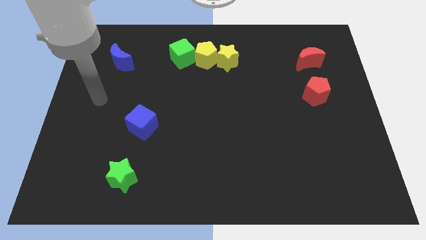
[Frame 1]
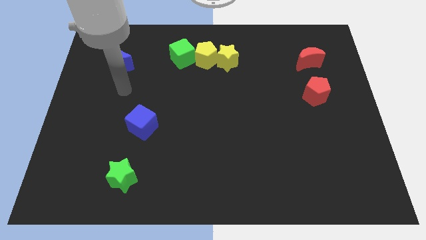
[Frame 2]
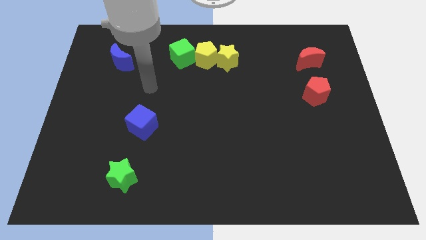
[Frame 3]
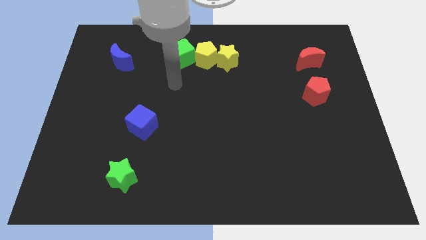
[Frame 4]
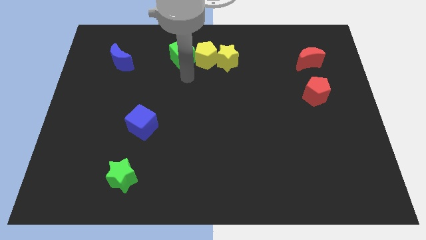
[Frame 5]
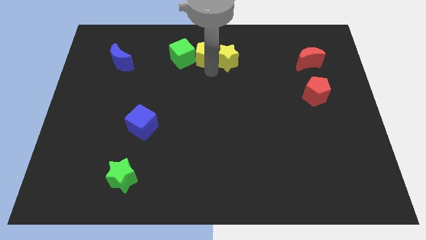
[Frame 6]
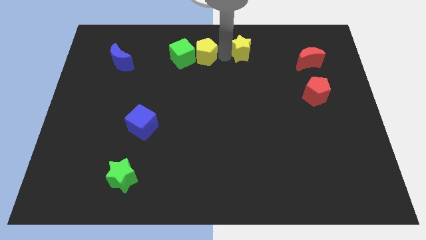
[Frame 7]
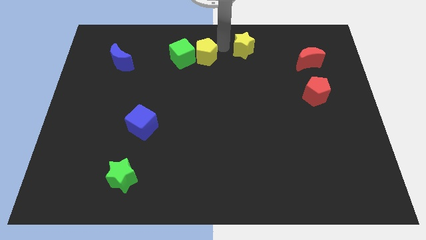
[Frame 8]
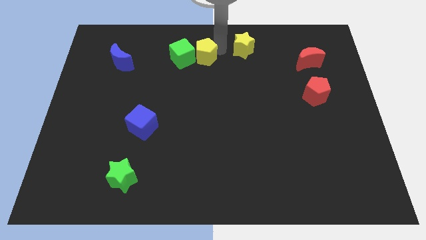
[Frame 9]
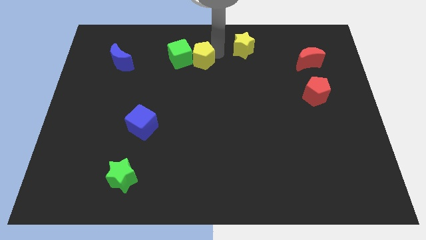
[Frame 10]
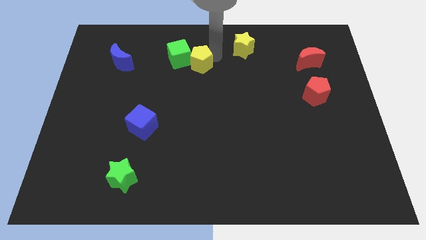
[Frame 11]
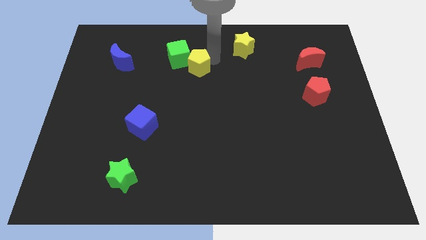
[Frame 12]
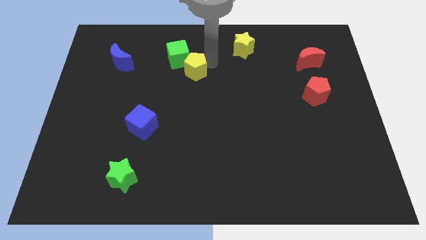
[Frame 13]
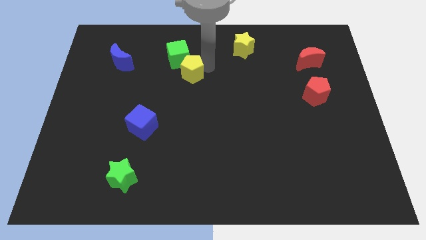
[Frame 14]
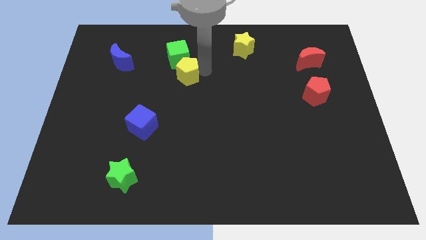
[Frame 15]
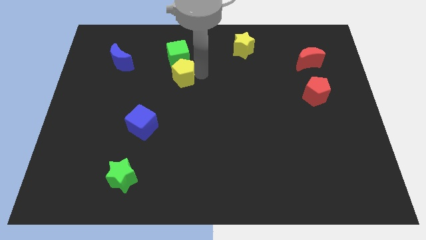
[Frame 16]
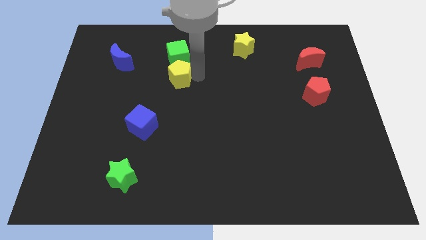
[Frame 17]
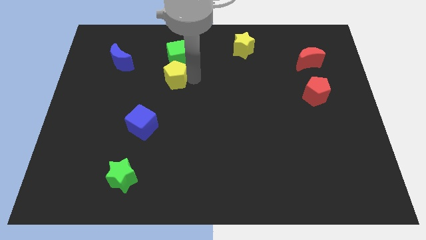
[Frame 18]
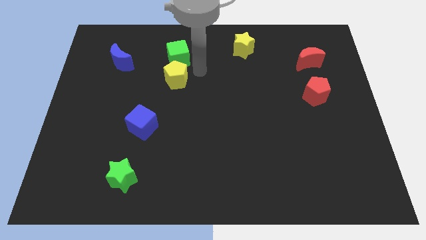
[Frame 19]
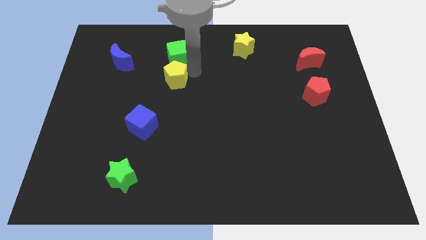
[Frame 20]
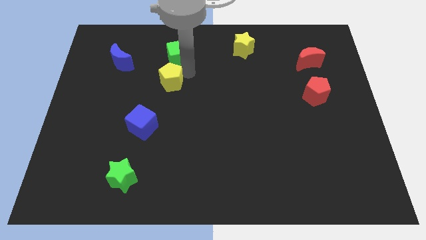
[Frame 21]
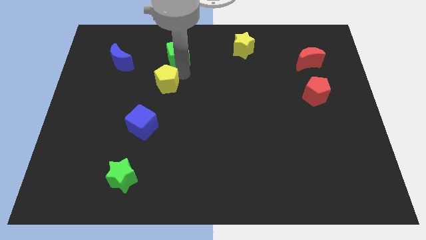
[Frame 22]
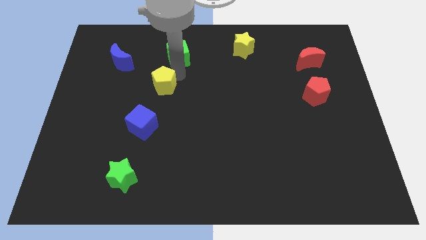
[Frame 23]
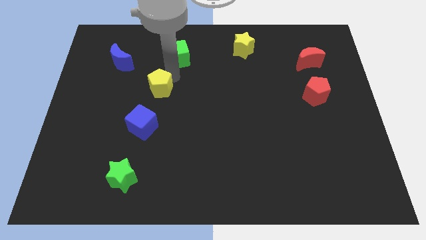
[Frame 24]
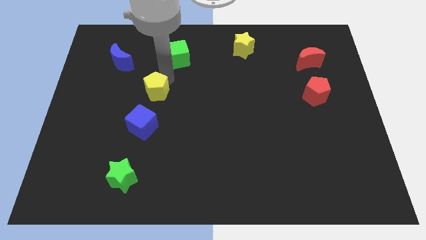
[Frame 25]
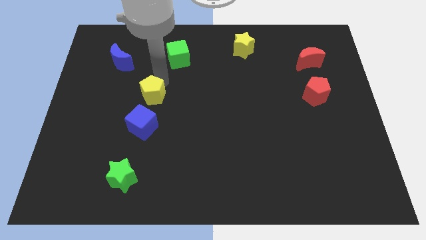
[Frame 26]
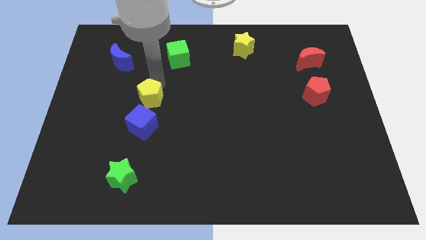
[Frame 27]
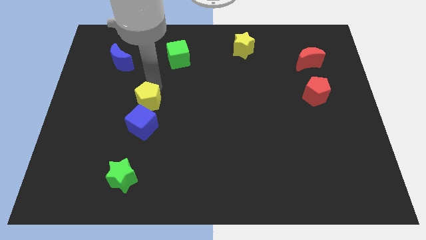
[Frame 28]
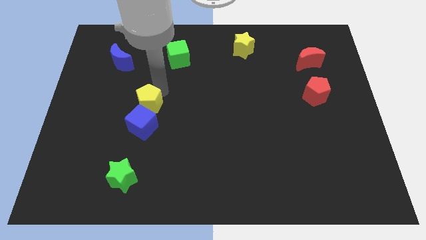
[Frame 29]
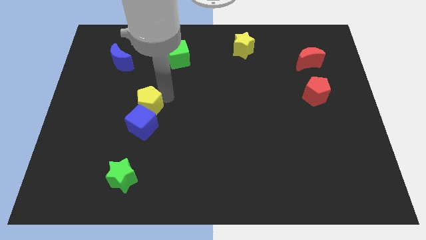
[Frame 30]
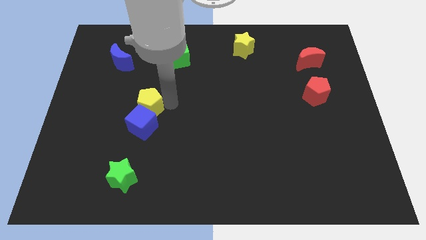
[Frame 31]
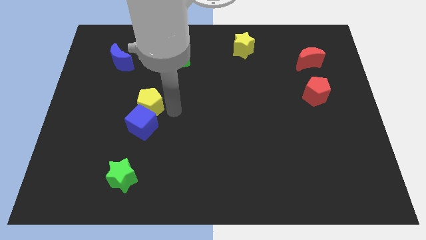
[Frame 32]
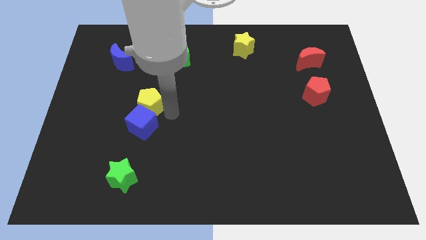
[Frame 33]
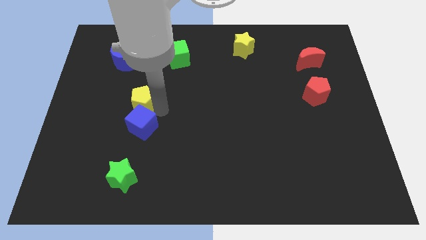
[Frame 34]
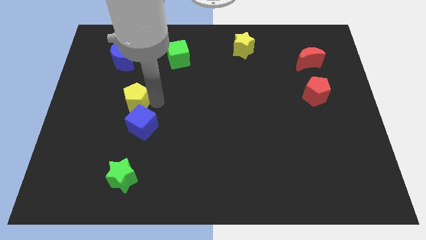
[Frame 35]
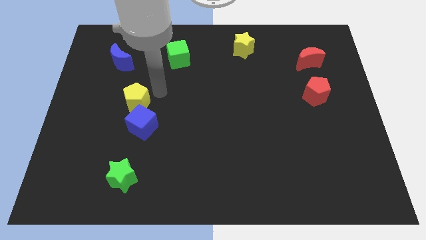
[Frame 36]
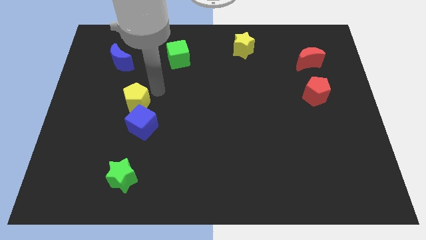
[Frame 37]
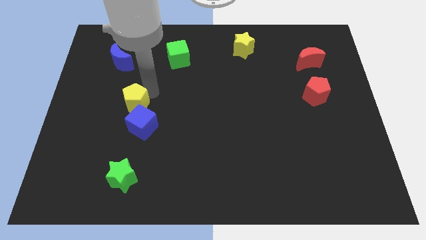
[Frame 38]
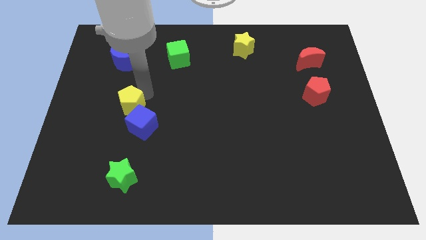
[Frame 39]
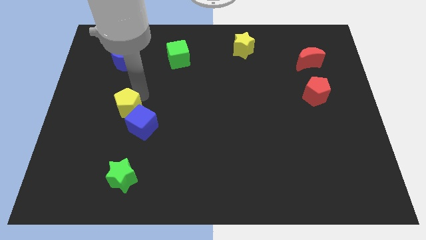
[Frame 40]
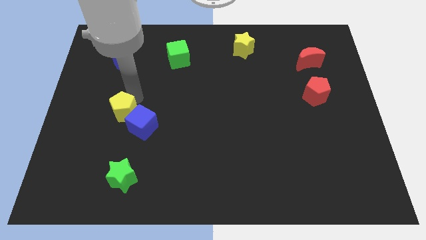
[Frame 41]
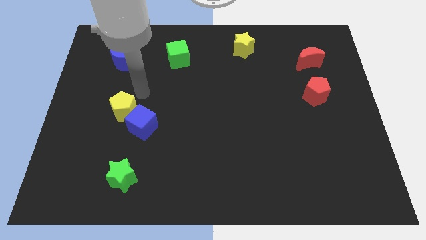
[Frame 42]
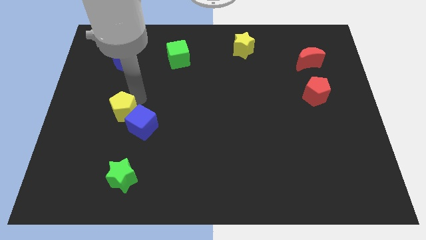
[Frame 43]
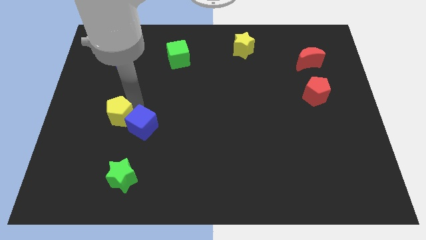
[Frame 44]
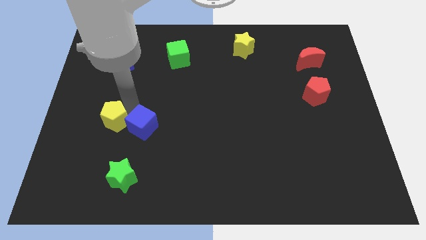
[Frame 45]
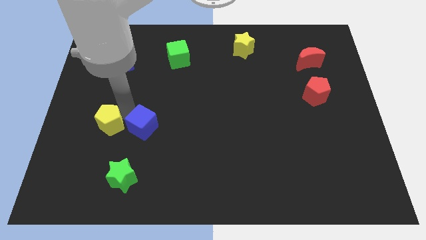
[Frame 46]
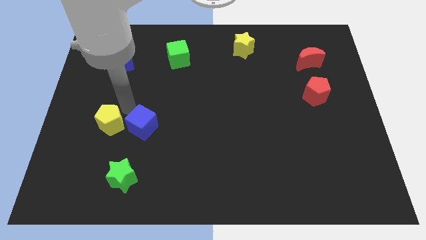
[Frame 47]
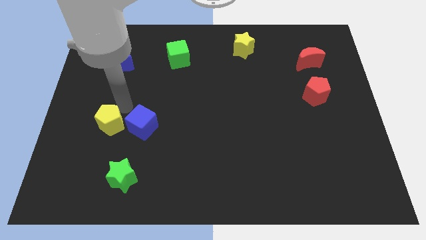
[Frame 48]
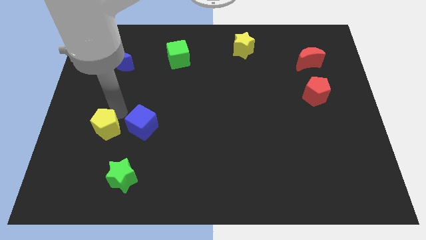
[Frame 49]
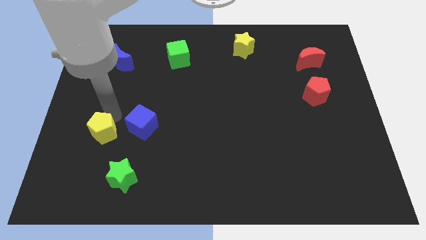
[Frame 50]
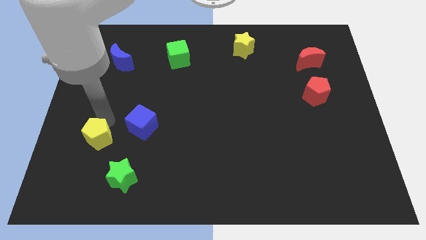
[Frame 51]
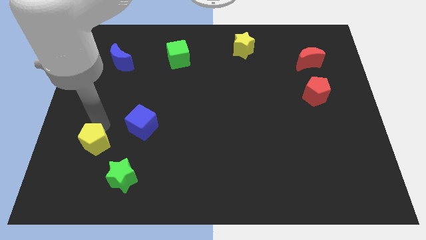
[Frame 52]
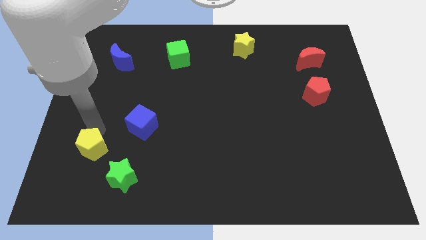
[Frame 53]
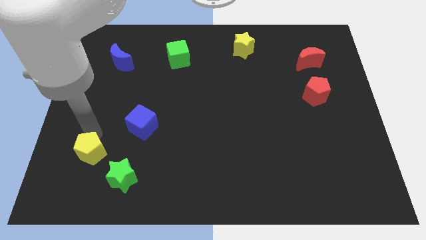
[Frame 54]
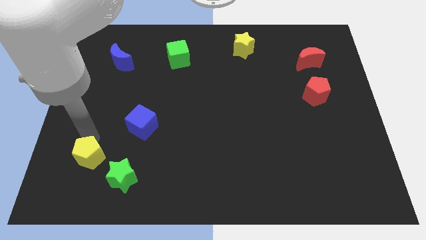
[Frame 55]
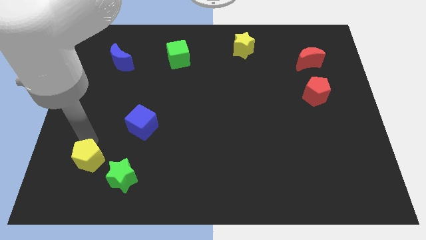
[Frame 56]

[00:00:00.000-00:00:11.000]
push the yellow pentagon left of the green star

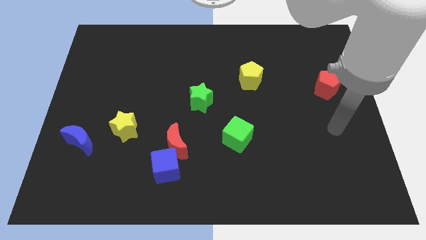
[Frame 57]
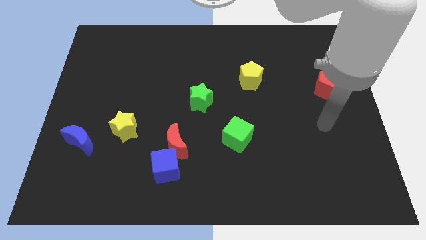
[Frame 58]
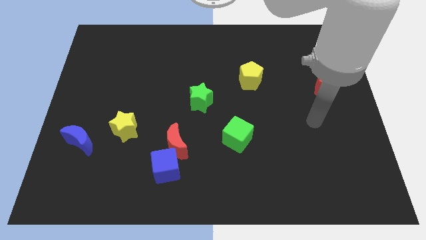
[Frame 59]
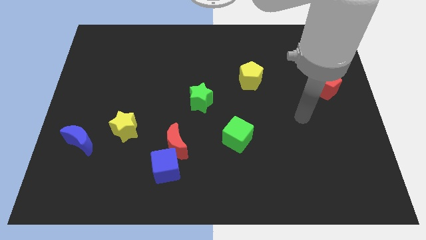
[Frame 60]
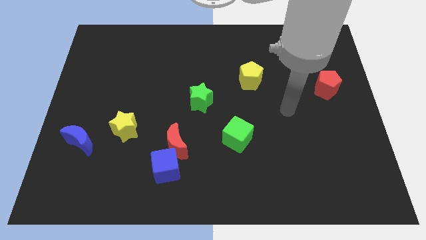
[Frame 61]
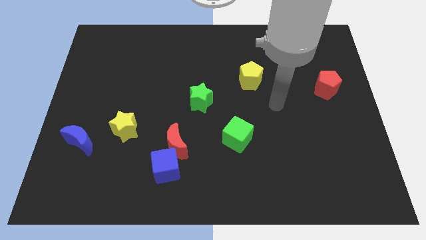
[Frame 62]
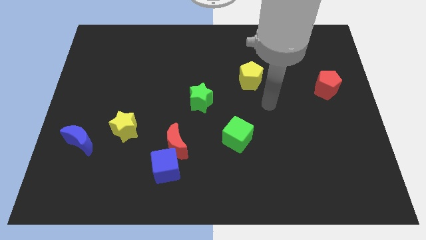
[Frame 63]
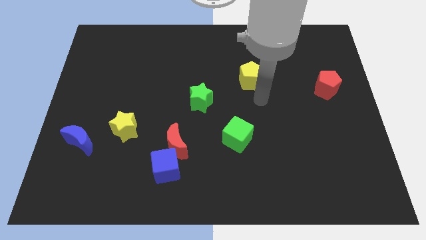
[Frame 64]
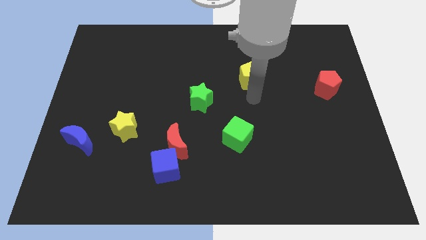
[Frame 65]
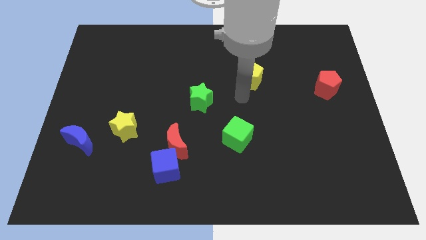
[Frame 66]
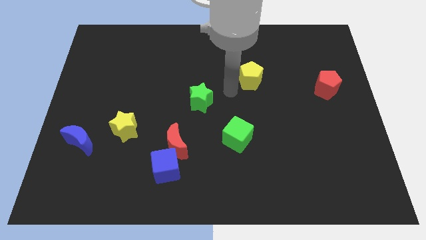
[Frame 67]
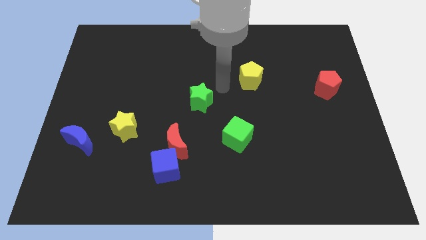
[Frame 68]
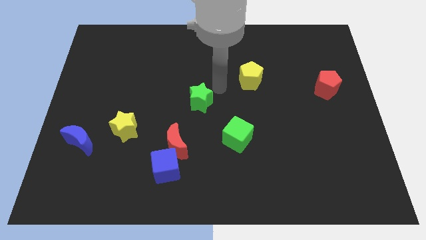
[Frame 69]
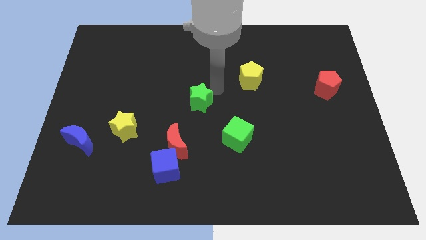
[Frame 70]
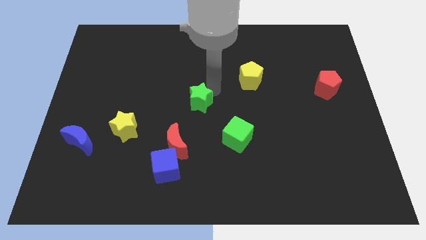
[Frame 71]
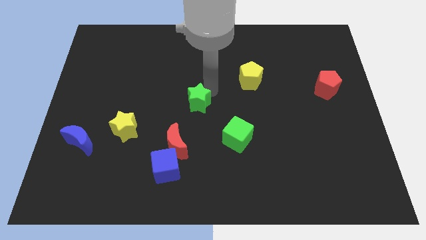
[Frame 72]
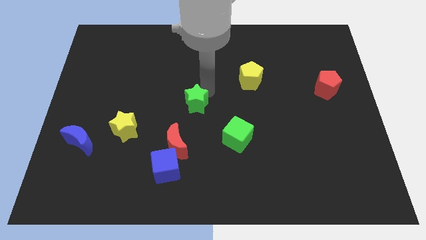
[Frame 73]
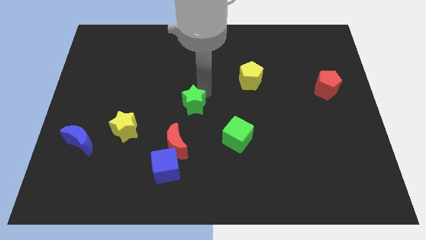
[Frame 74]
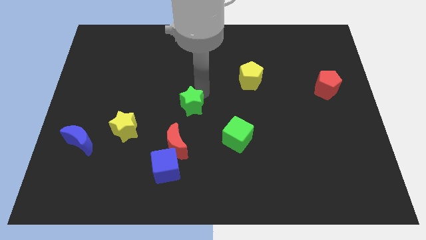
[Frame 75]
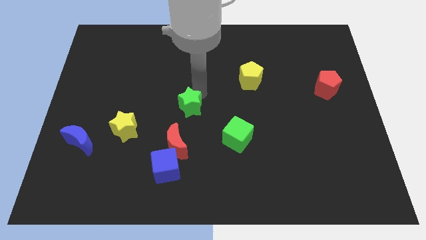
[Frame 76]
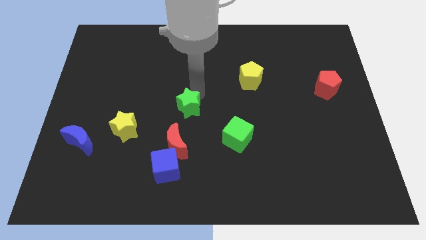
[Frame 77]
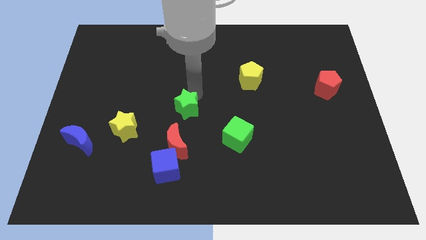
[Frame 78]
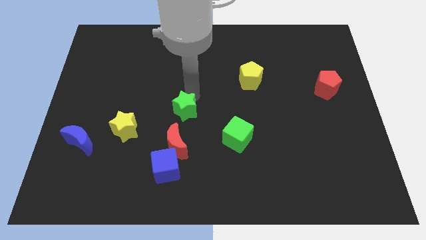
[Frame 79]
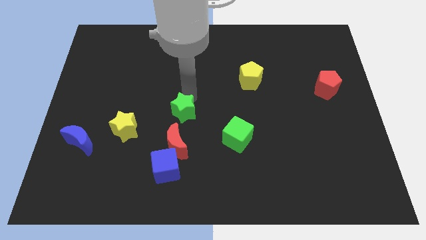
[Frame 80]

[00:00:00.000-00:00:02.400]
slide the green star to the top side of the blue cube

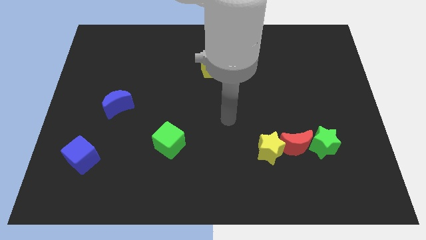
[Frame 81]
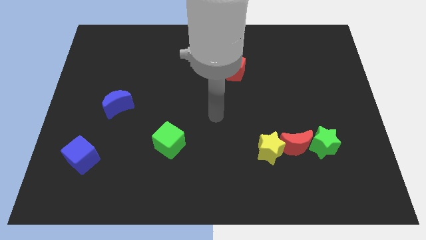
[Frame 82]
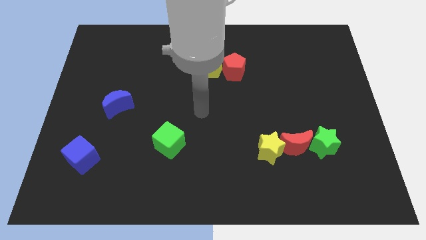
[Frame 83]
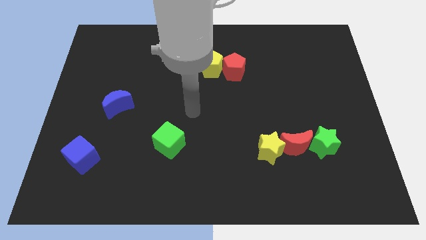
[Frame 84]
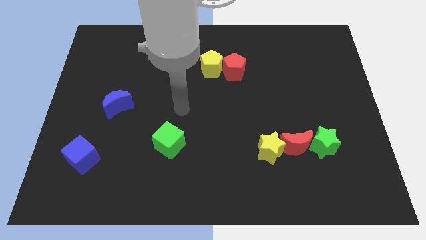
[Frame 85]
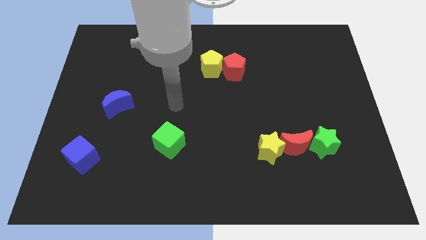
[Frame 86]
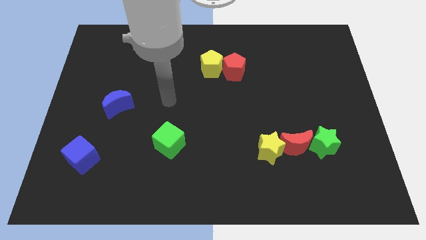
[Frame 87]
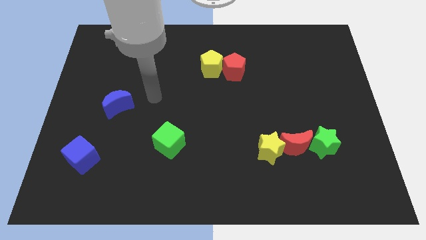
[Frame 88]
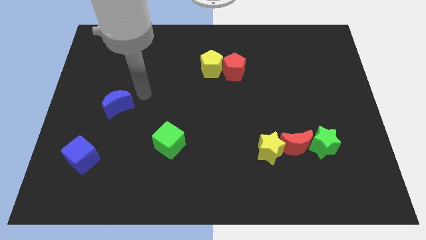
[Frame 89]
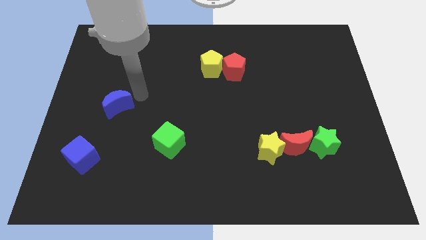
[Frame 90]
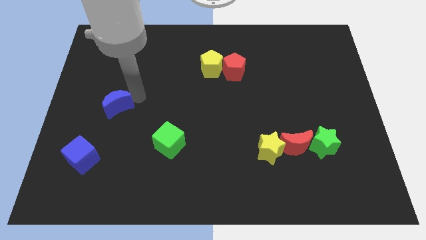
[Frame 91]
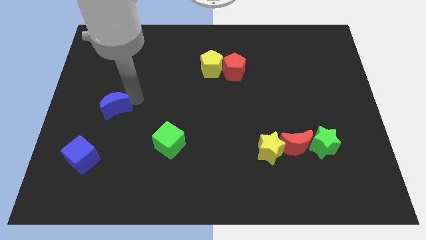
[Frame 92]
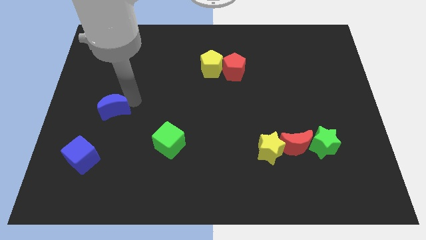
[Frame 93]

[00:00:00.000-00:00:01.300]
push the blue moon to the top side of the blue cube
